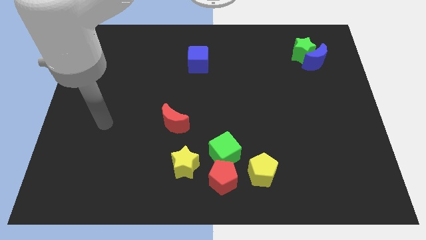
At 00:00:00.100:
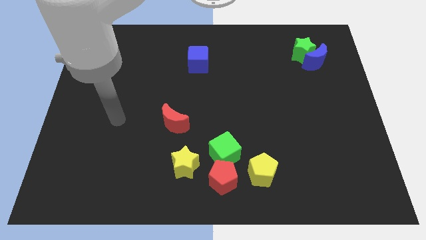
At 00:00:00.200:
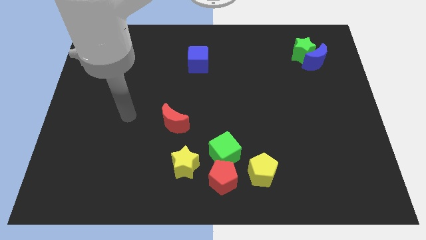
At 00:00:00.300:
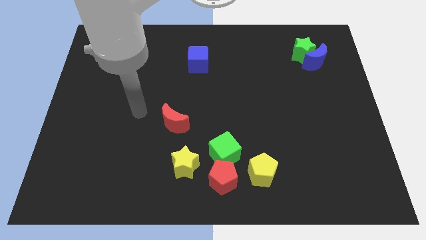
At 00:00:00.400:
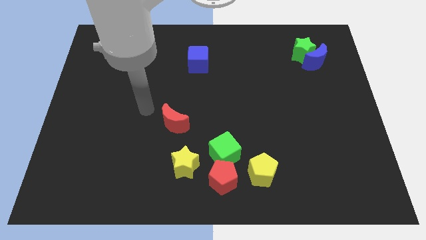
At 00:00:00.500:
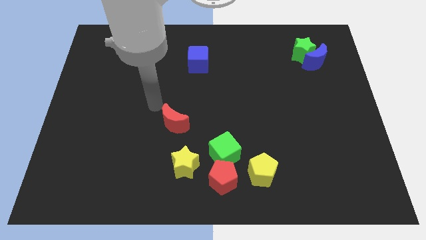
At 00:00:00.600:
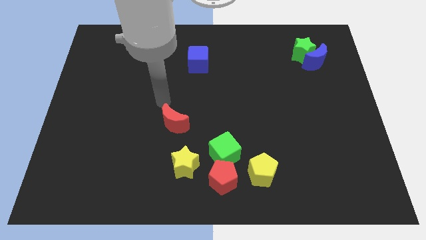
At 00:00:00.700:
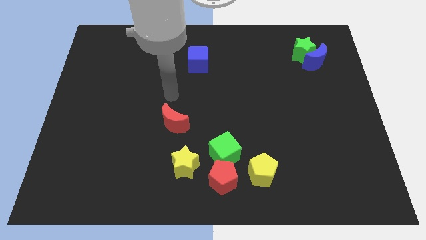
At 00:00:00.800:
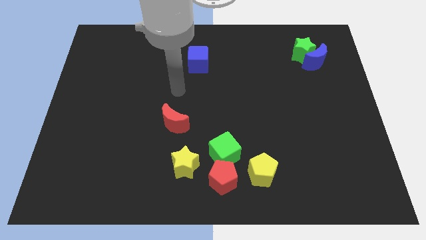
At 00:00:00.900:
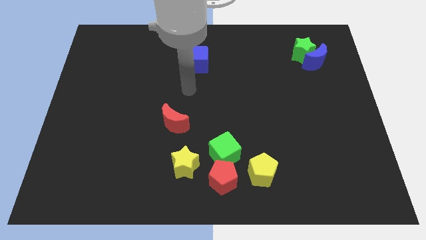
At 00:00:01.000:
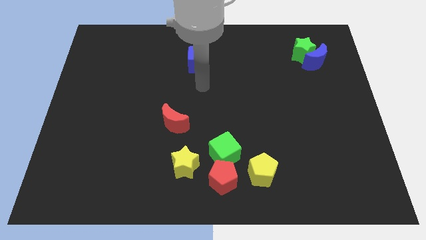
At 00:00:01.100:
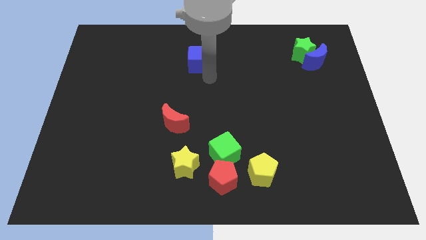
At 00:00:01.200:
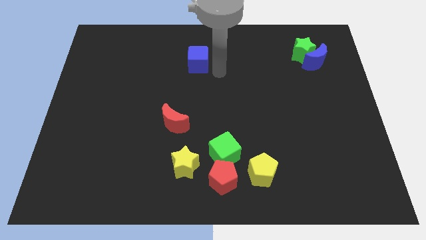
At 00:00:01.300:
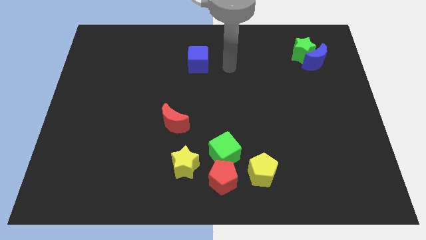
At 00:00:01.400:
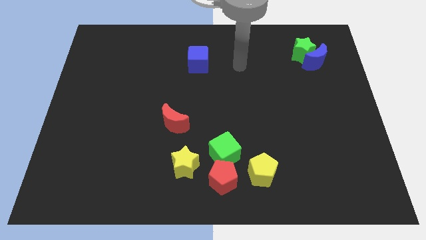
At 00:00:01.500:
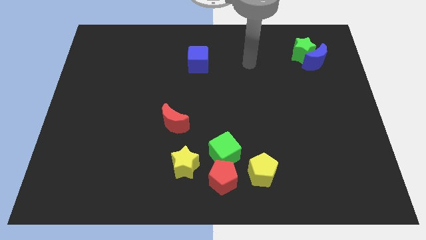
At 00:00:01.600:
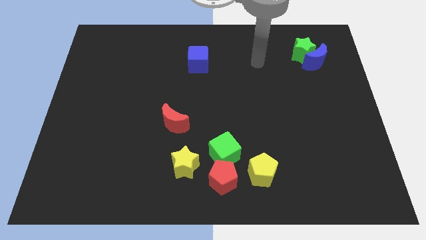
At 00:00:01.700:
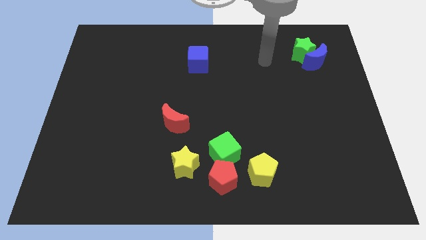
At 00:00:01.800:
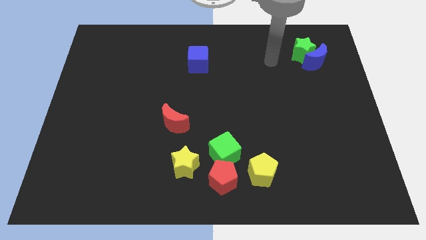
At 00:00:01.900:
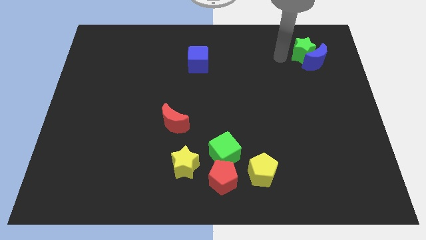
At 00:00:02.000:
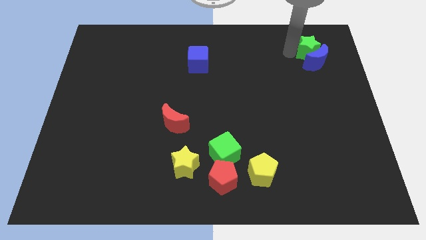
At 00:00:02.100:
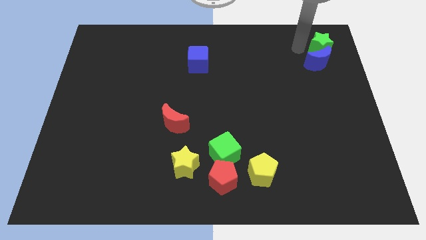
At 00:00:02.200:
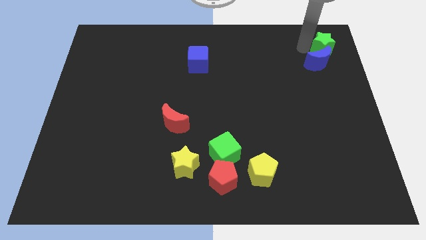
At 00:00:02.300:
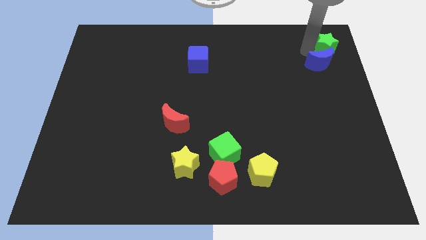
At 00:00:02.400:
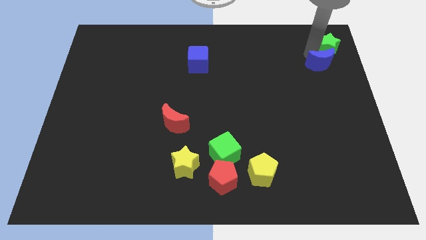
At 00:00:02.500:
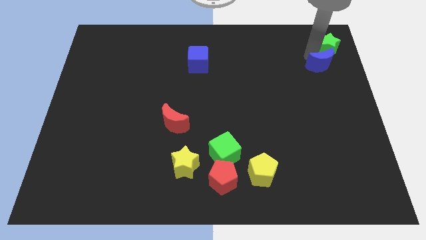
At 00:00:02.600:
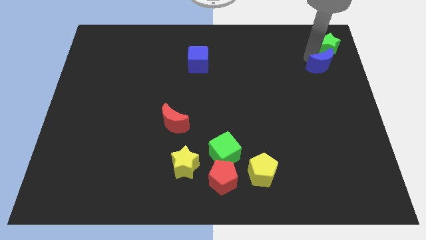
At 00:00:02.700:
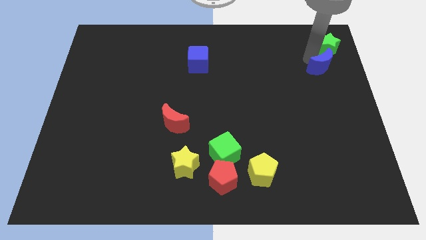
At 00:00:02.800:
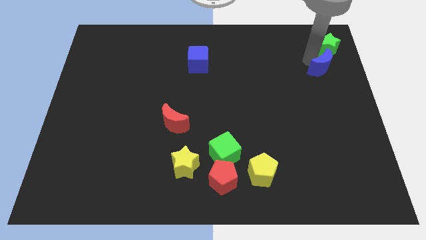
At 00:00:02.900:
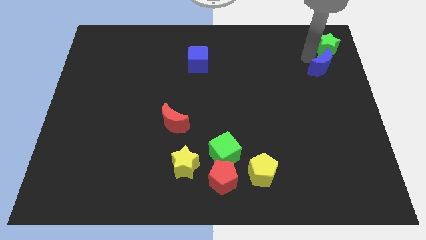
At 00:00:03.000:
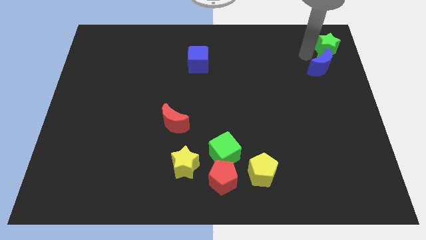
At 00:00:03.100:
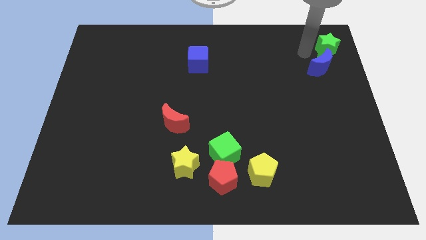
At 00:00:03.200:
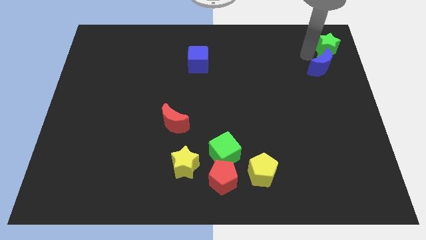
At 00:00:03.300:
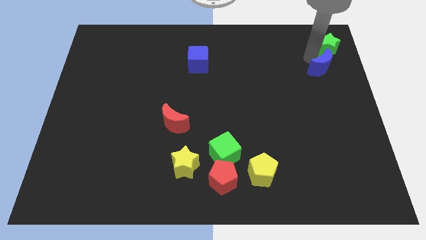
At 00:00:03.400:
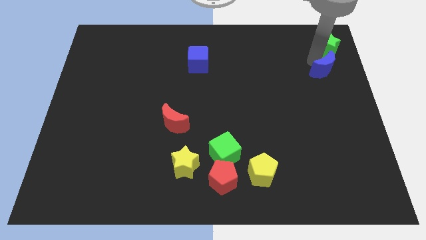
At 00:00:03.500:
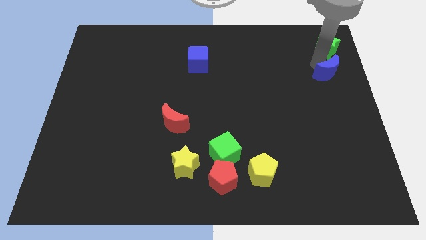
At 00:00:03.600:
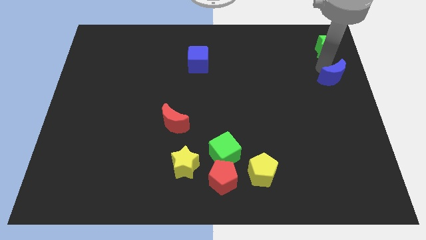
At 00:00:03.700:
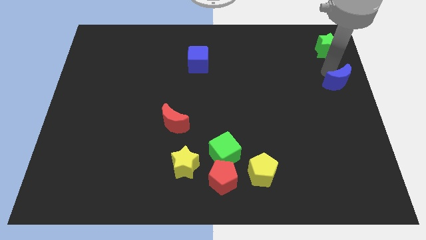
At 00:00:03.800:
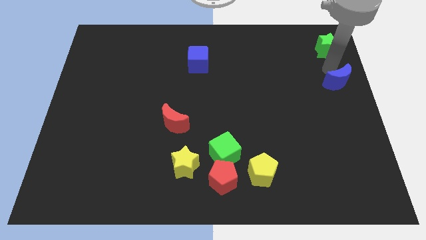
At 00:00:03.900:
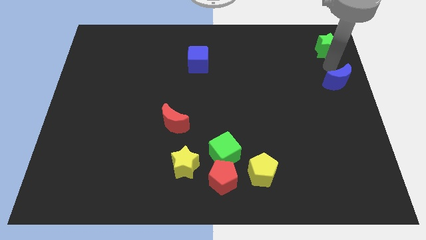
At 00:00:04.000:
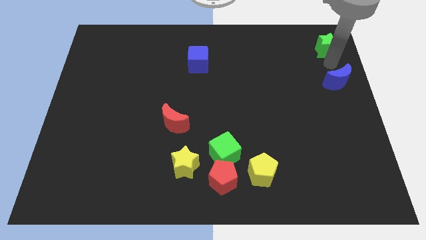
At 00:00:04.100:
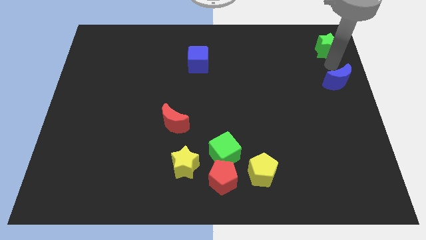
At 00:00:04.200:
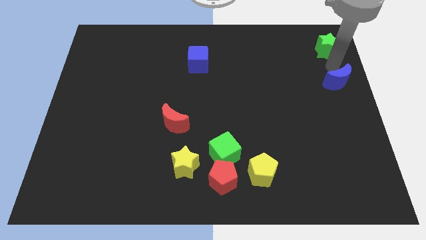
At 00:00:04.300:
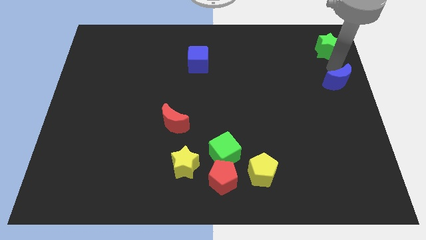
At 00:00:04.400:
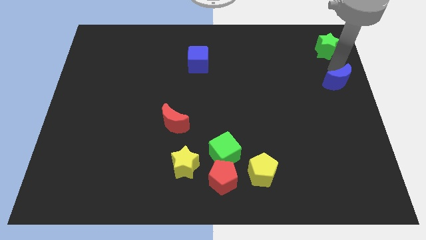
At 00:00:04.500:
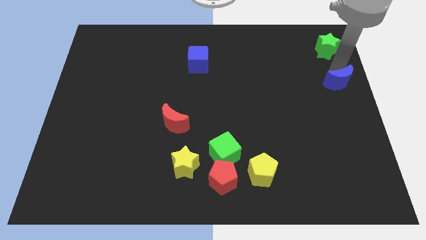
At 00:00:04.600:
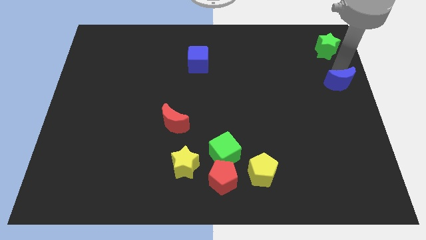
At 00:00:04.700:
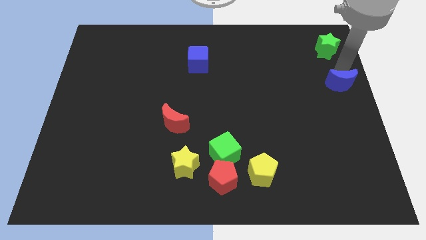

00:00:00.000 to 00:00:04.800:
move the blue moon downwards a little bit

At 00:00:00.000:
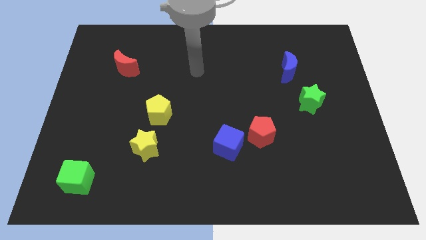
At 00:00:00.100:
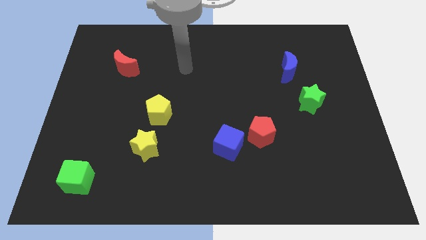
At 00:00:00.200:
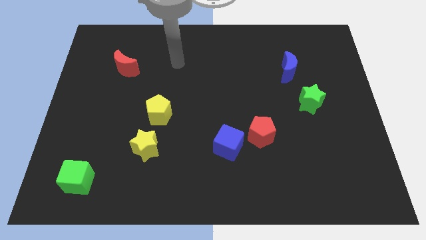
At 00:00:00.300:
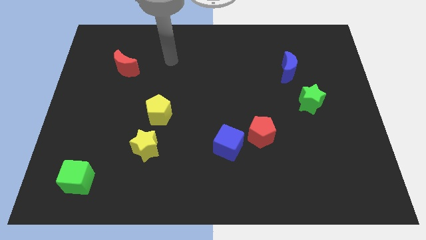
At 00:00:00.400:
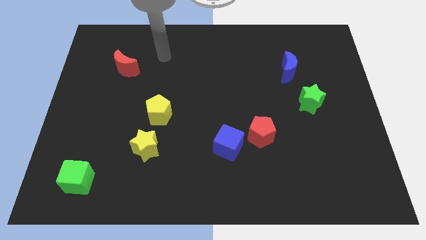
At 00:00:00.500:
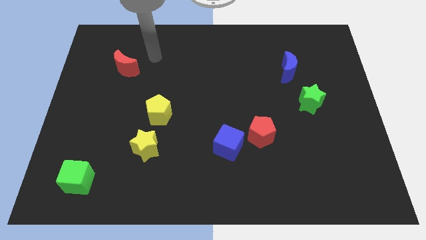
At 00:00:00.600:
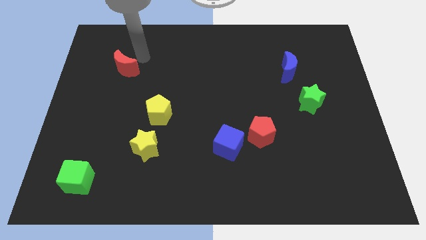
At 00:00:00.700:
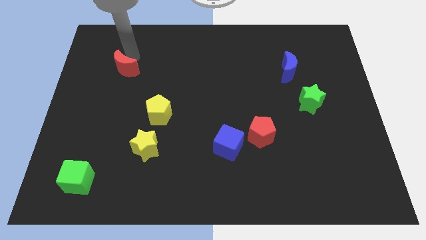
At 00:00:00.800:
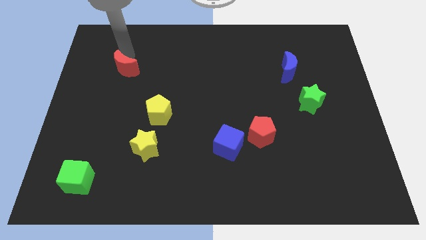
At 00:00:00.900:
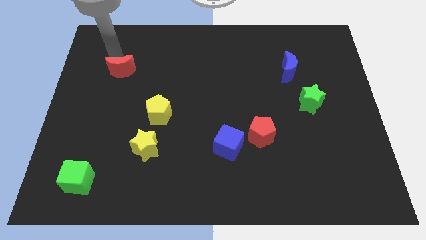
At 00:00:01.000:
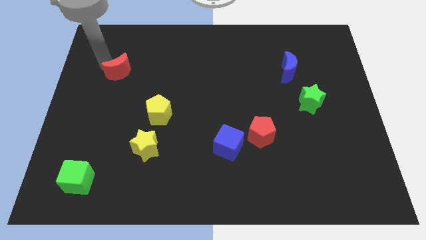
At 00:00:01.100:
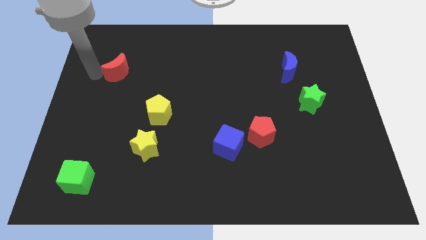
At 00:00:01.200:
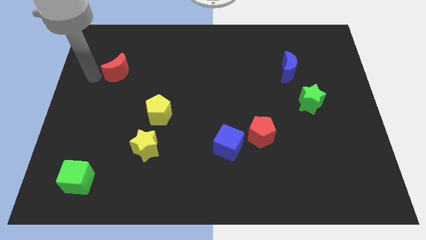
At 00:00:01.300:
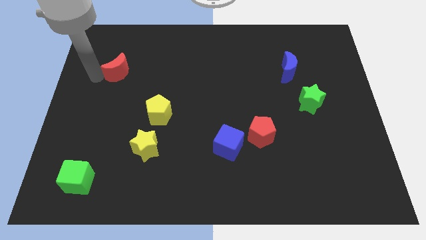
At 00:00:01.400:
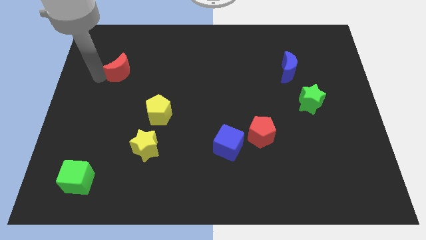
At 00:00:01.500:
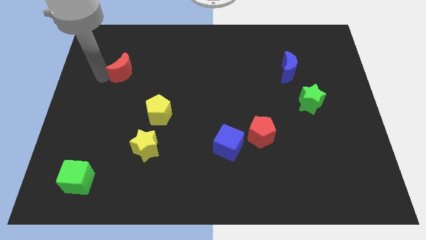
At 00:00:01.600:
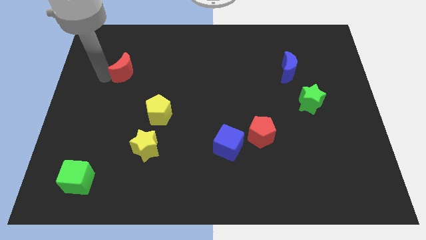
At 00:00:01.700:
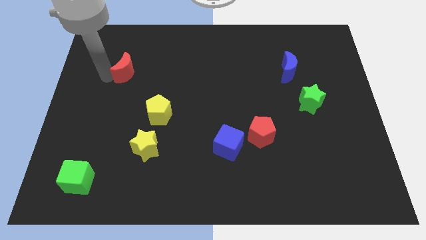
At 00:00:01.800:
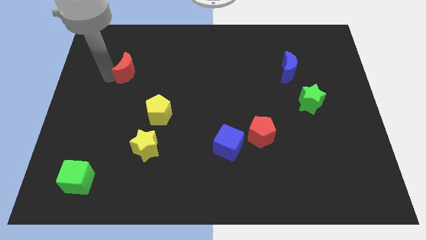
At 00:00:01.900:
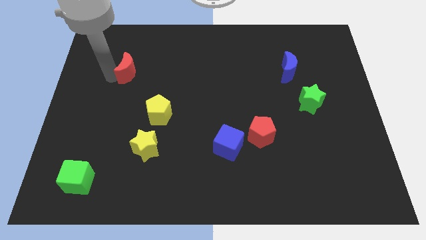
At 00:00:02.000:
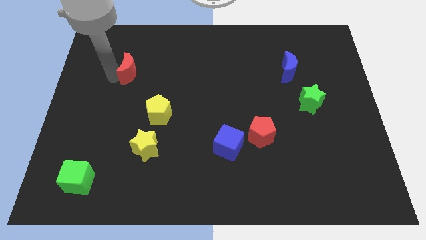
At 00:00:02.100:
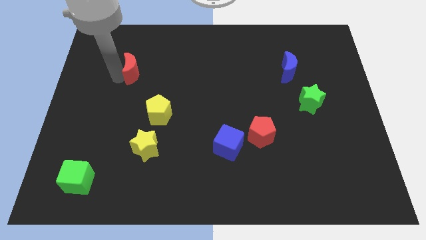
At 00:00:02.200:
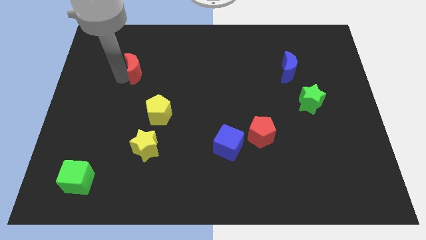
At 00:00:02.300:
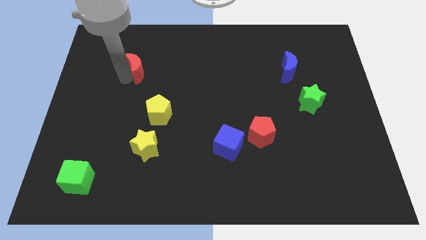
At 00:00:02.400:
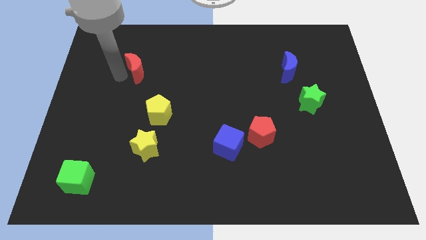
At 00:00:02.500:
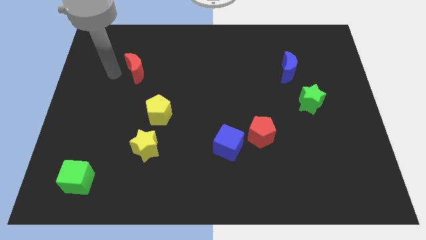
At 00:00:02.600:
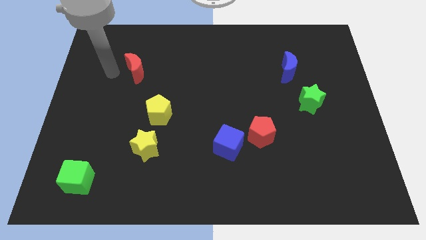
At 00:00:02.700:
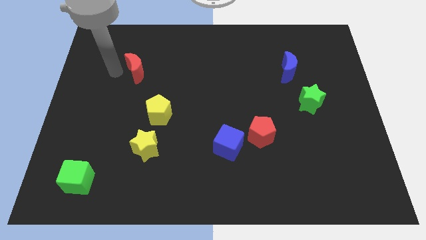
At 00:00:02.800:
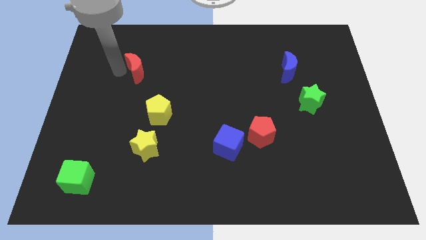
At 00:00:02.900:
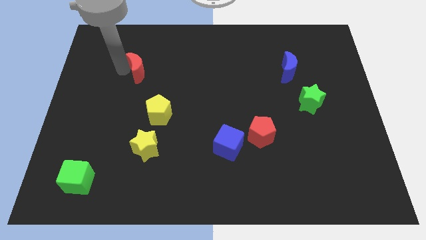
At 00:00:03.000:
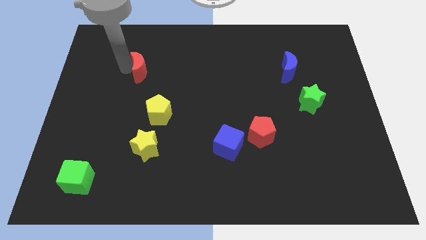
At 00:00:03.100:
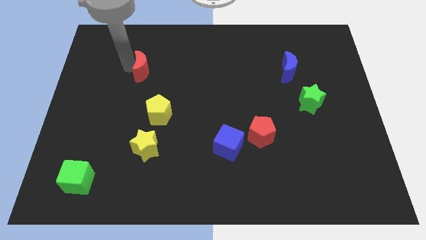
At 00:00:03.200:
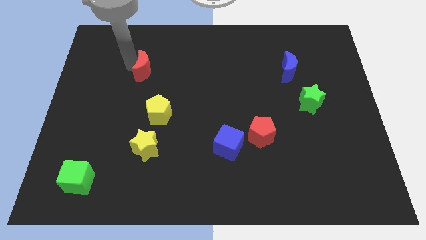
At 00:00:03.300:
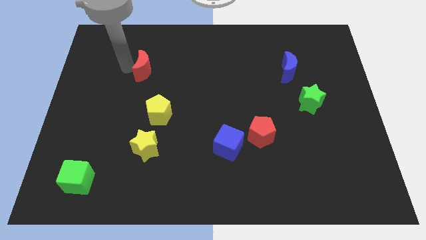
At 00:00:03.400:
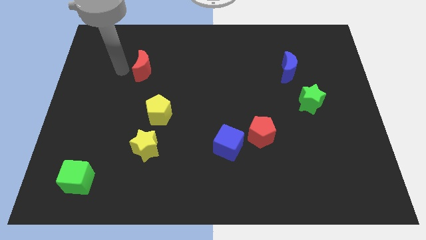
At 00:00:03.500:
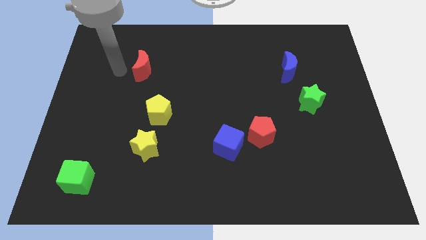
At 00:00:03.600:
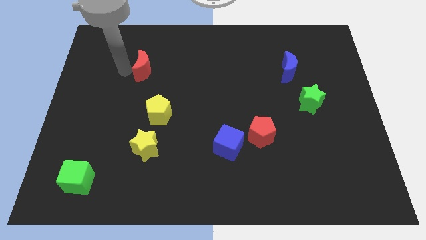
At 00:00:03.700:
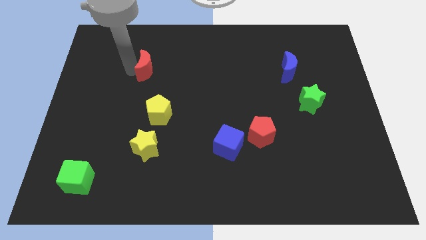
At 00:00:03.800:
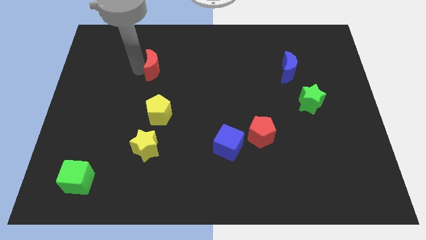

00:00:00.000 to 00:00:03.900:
slightly move the red moon right
